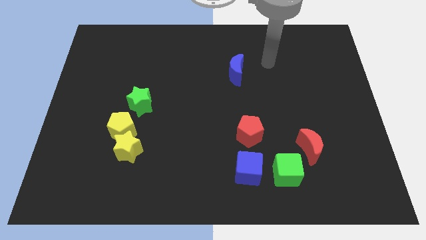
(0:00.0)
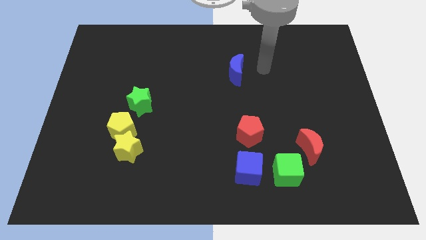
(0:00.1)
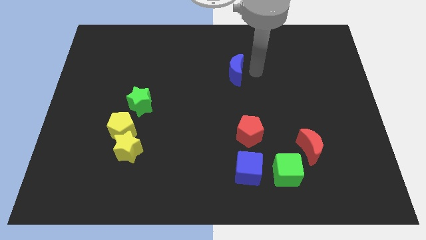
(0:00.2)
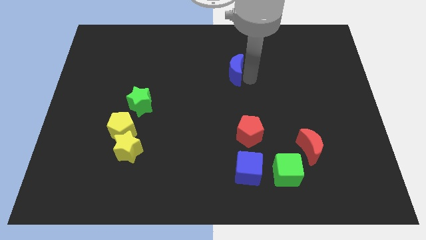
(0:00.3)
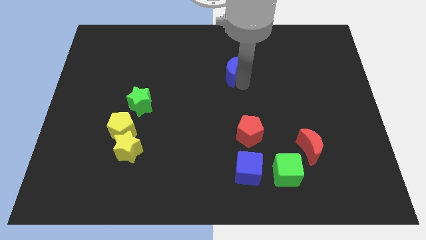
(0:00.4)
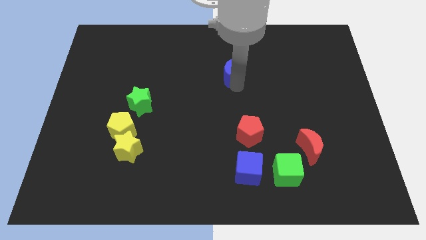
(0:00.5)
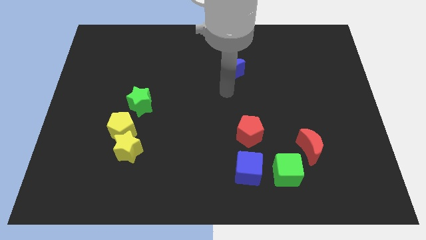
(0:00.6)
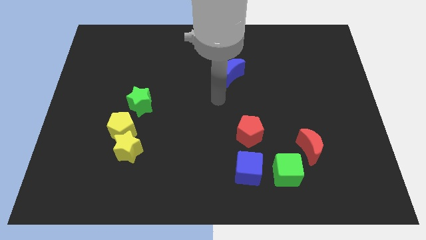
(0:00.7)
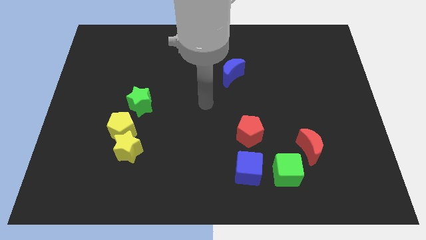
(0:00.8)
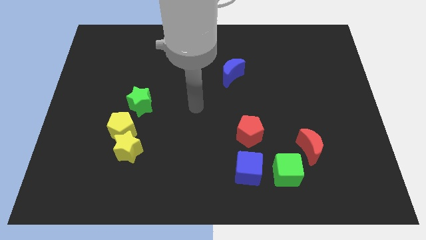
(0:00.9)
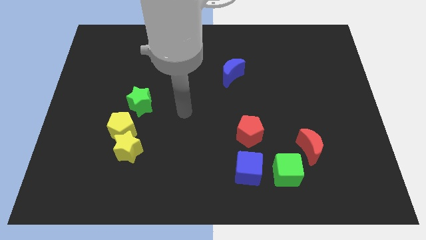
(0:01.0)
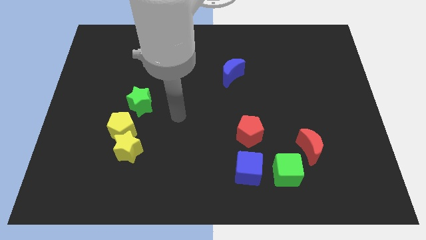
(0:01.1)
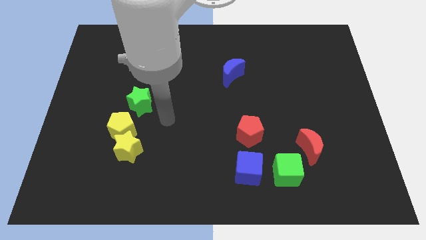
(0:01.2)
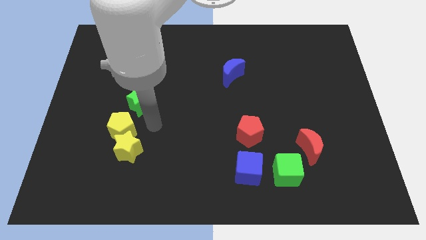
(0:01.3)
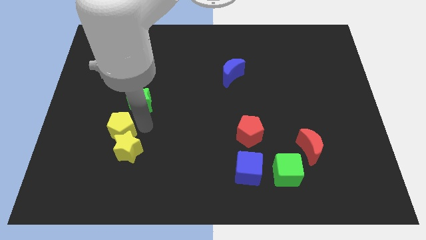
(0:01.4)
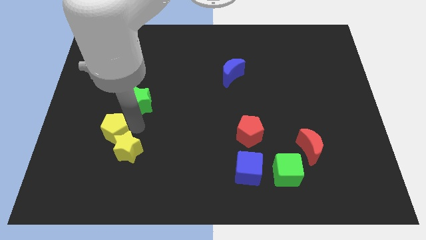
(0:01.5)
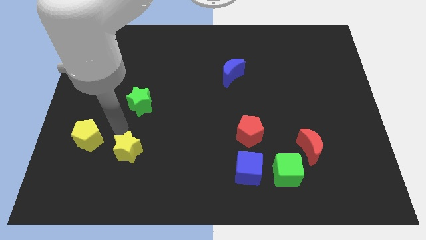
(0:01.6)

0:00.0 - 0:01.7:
separate the yellow star from the yellow pentagon

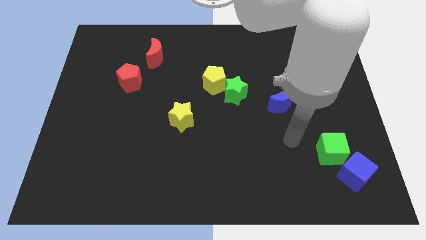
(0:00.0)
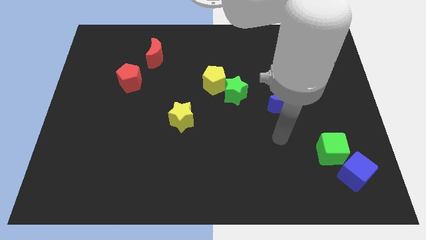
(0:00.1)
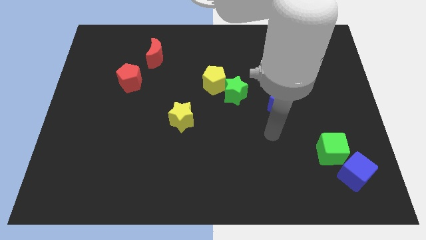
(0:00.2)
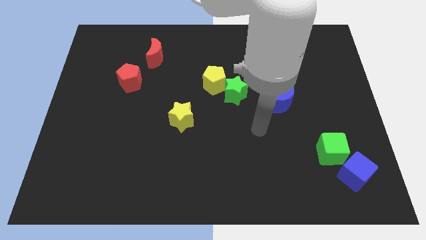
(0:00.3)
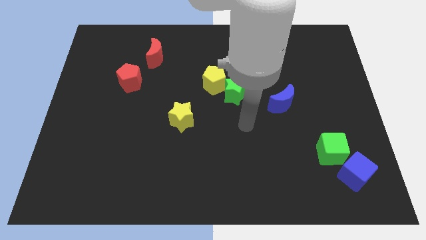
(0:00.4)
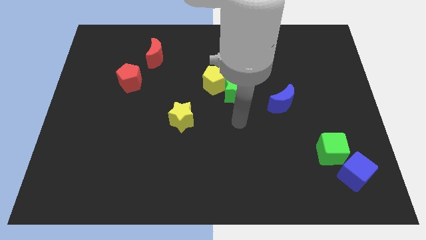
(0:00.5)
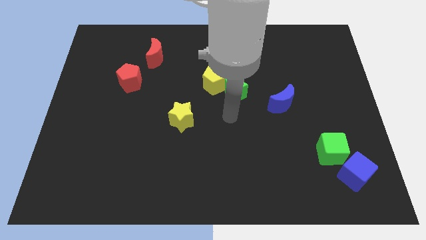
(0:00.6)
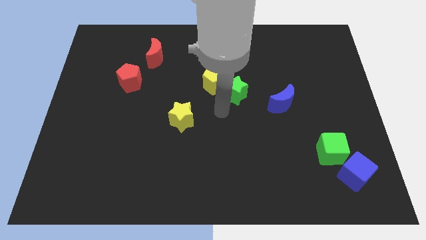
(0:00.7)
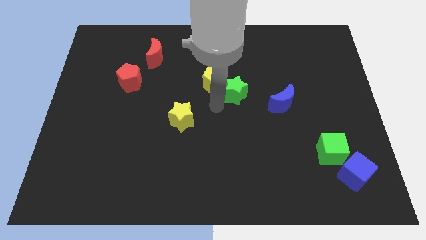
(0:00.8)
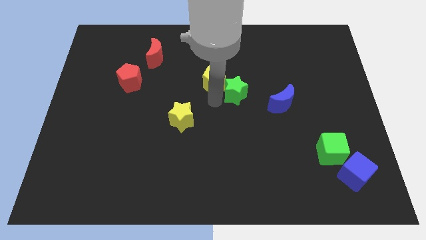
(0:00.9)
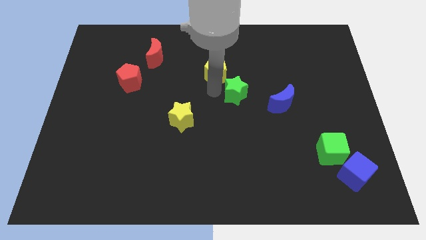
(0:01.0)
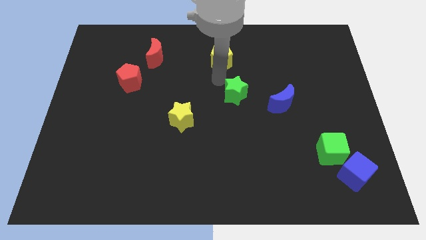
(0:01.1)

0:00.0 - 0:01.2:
move the green star away from the yellow pentagon

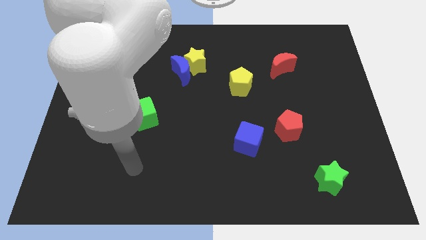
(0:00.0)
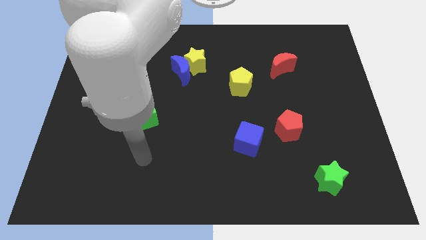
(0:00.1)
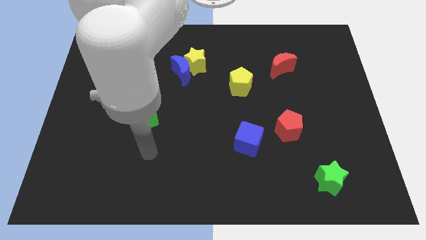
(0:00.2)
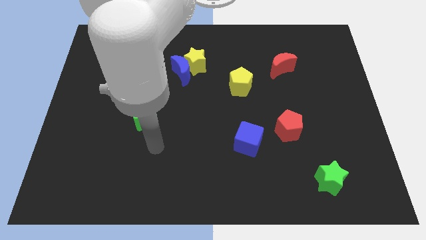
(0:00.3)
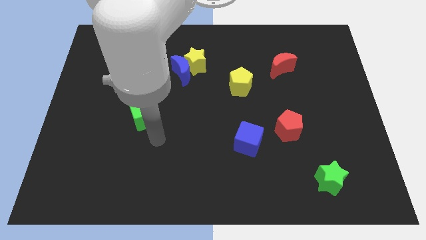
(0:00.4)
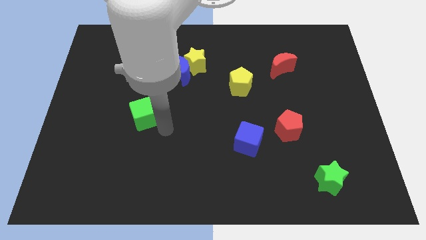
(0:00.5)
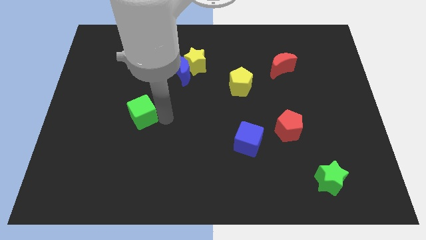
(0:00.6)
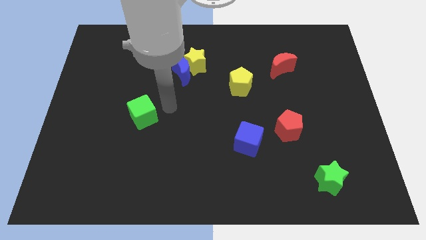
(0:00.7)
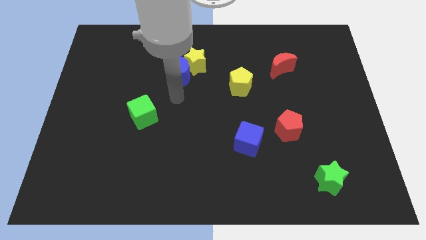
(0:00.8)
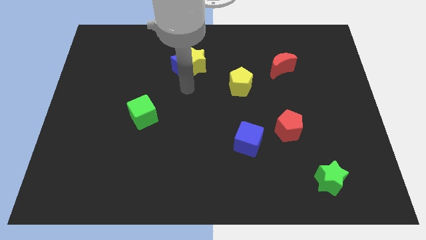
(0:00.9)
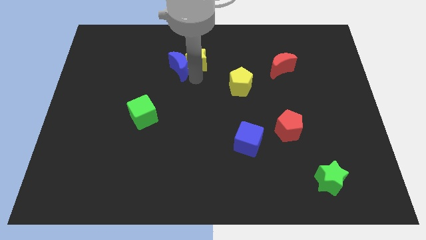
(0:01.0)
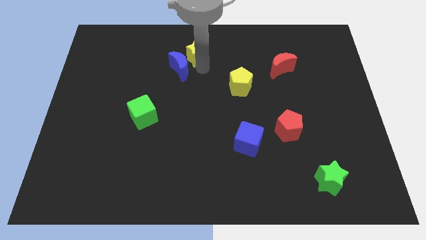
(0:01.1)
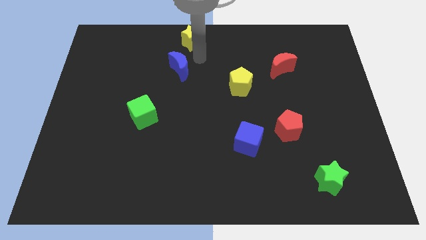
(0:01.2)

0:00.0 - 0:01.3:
move the blue moon away from the yellow star

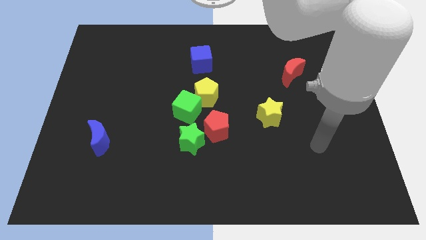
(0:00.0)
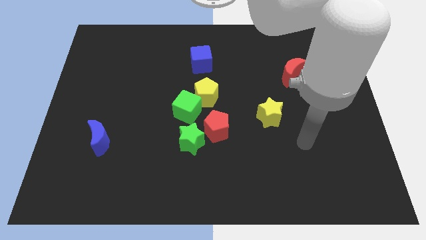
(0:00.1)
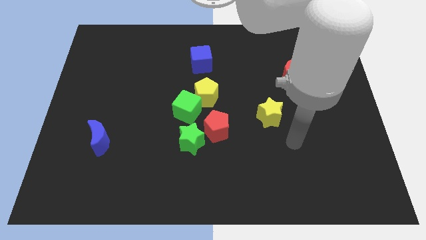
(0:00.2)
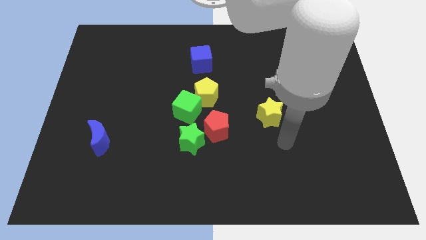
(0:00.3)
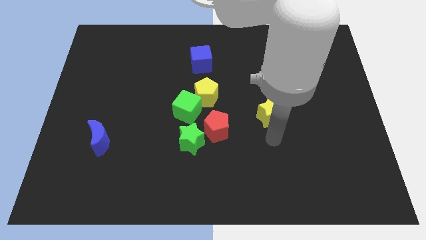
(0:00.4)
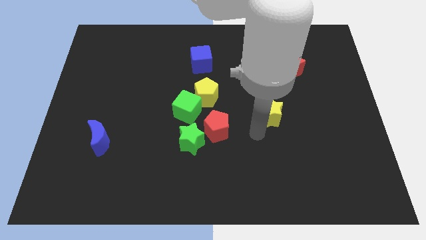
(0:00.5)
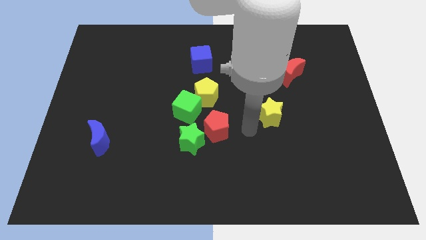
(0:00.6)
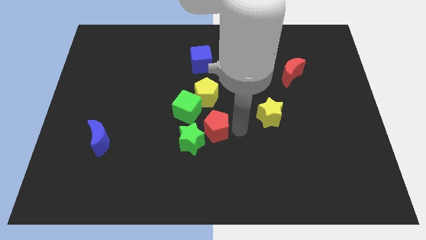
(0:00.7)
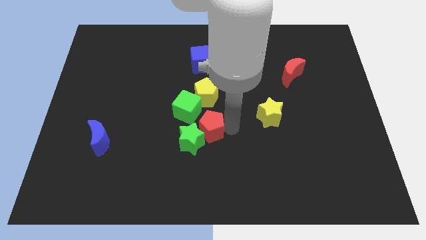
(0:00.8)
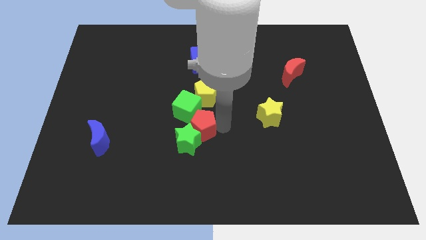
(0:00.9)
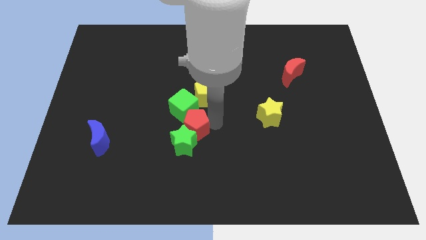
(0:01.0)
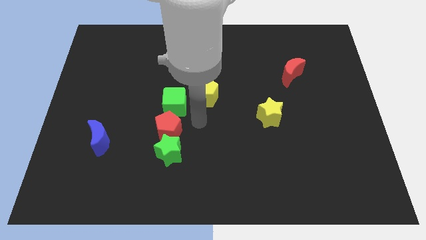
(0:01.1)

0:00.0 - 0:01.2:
move the green star away from the red pentagon and green cube

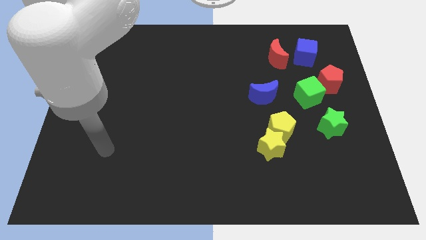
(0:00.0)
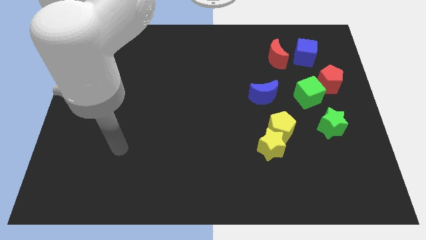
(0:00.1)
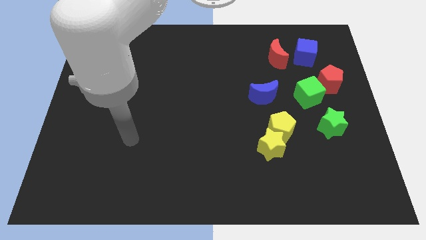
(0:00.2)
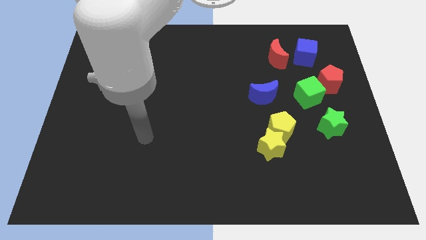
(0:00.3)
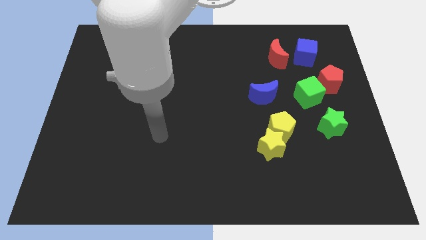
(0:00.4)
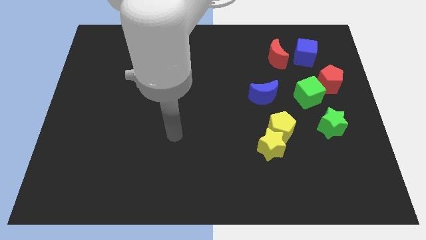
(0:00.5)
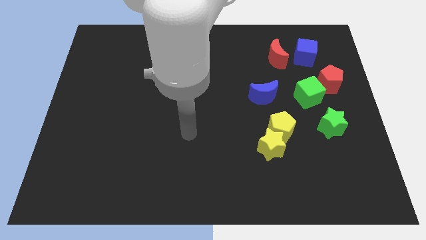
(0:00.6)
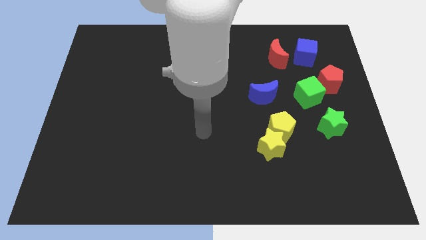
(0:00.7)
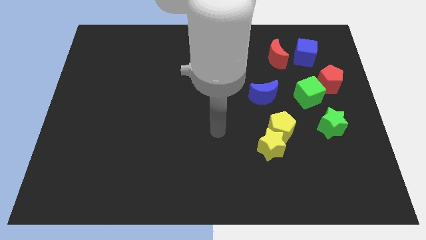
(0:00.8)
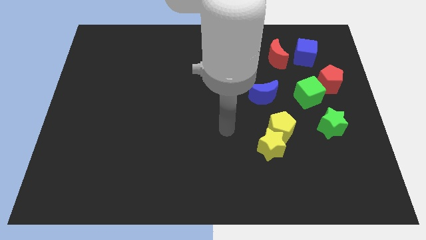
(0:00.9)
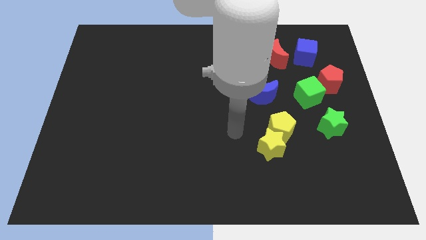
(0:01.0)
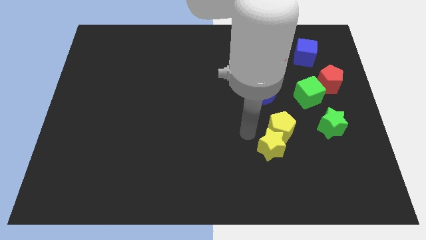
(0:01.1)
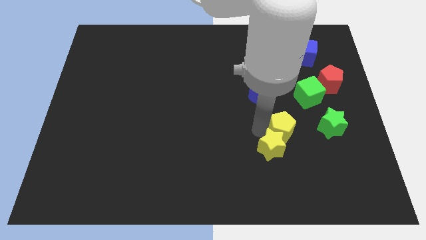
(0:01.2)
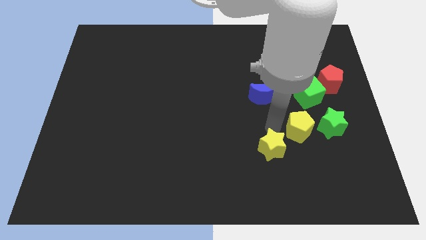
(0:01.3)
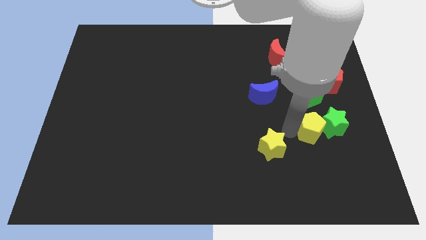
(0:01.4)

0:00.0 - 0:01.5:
pull the yellow star apart from the yellow pentagon

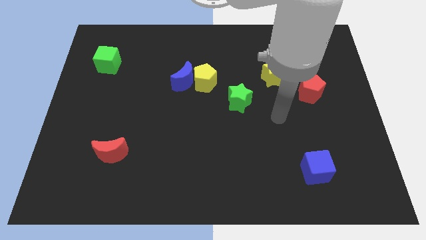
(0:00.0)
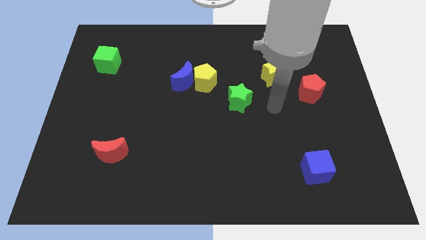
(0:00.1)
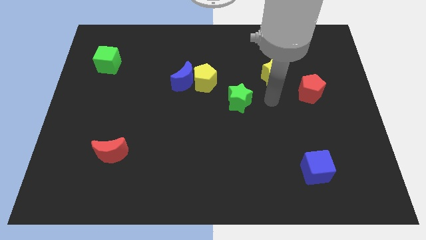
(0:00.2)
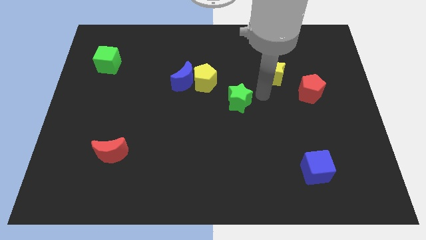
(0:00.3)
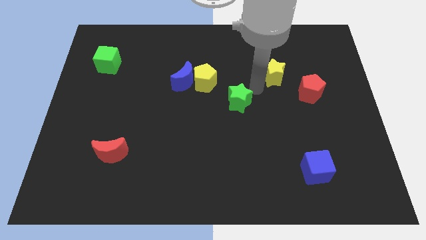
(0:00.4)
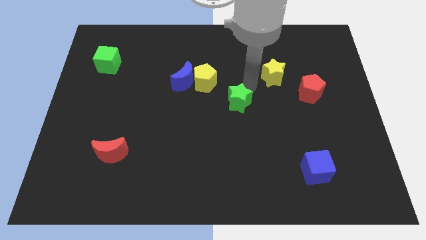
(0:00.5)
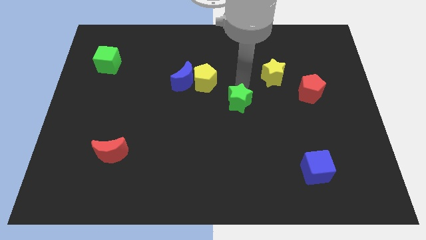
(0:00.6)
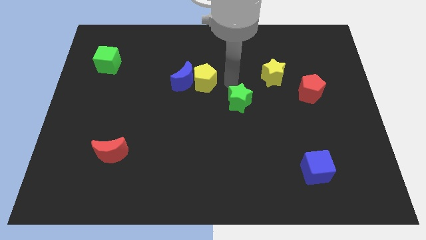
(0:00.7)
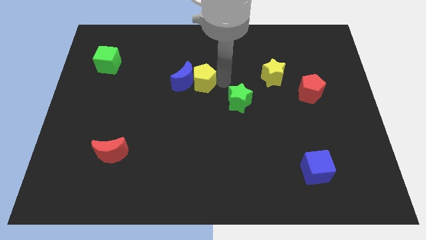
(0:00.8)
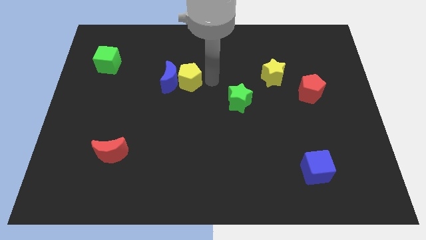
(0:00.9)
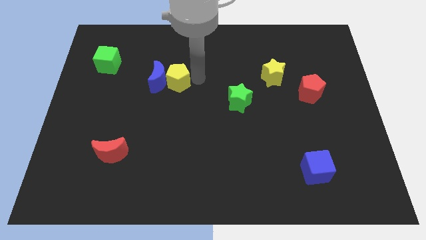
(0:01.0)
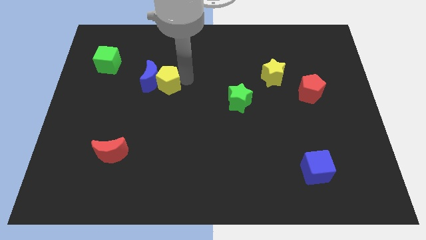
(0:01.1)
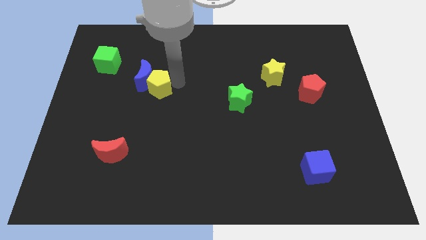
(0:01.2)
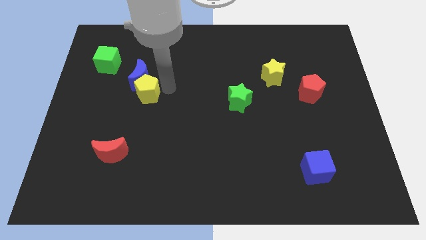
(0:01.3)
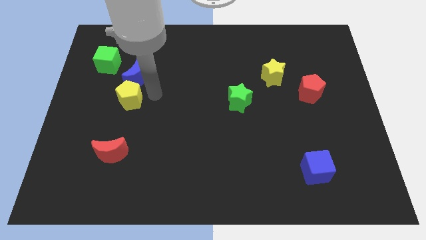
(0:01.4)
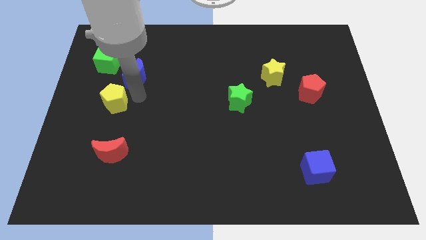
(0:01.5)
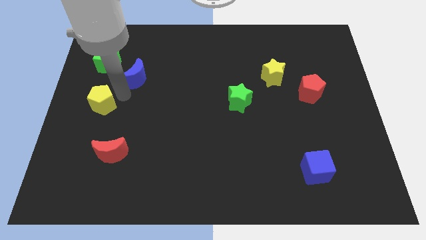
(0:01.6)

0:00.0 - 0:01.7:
pull the blue moon apart from the yellow pentagon

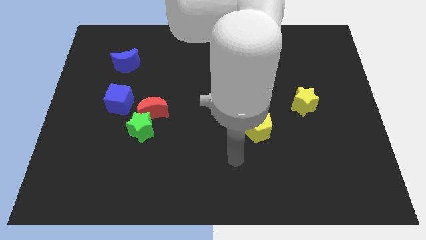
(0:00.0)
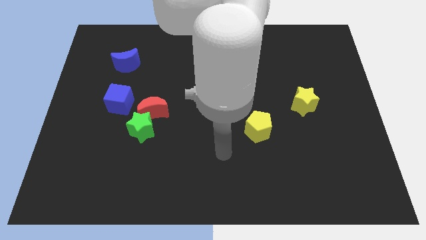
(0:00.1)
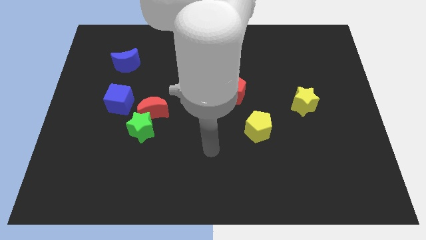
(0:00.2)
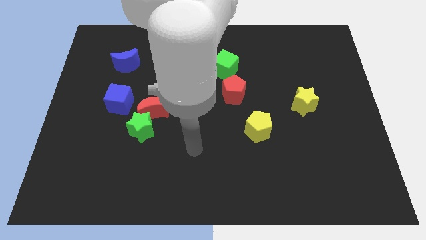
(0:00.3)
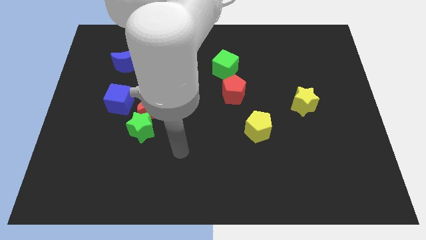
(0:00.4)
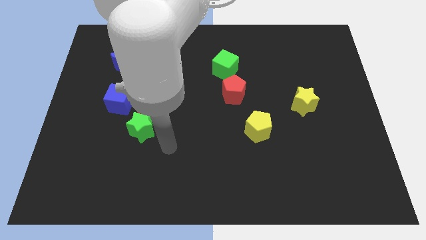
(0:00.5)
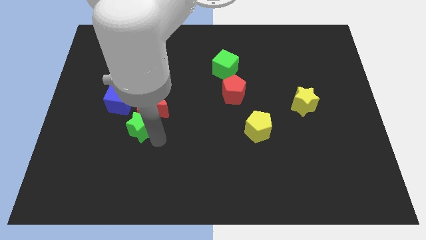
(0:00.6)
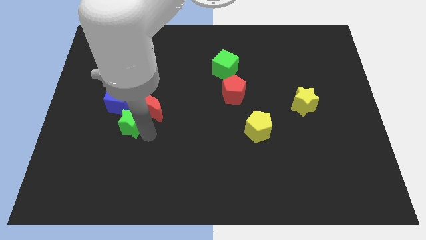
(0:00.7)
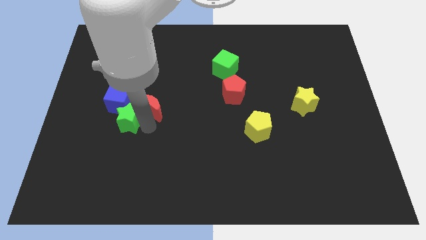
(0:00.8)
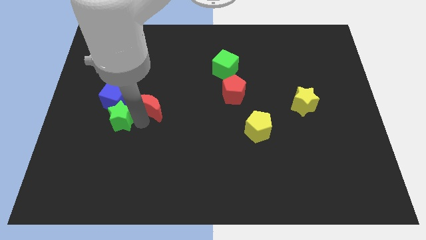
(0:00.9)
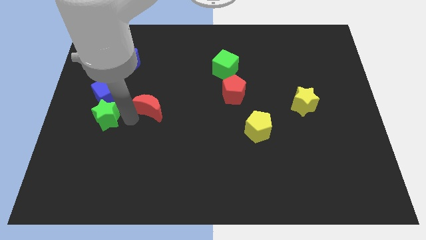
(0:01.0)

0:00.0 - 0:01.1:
move the red moon away from the green star and blue cube
